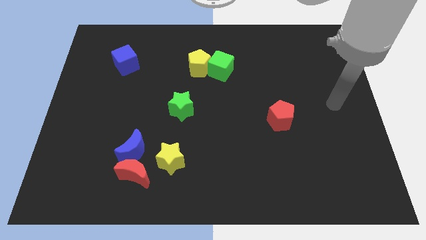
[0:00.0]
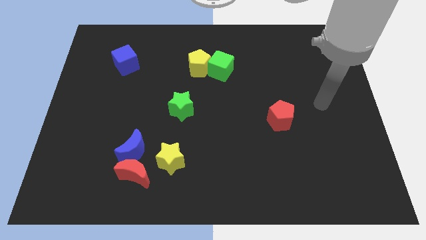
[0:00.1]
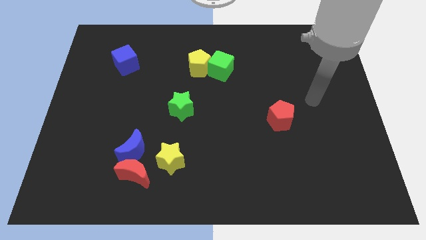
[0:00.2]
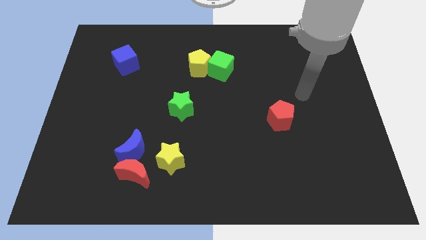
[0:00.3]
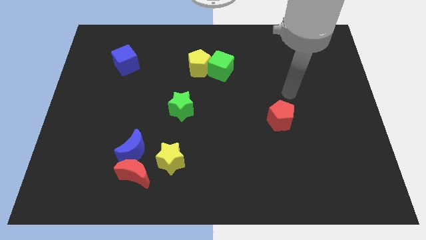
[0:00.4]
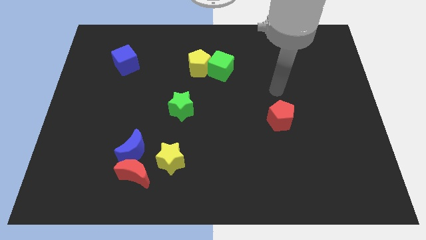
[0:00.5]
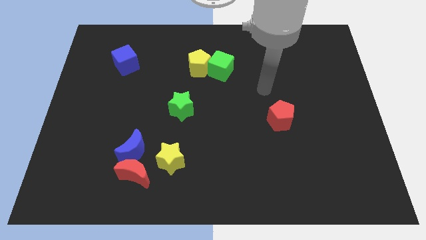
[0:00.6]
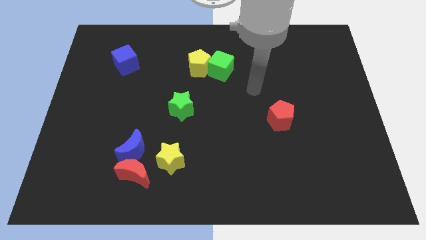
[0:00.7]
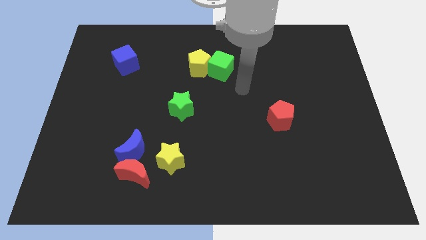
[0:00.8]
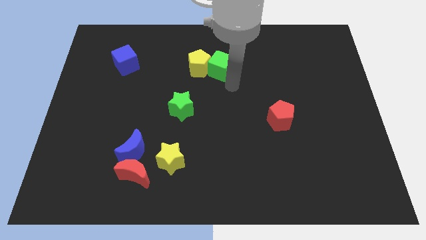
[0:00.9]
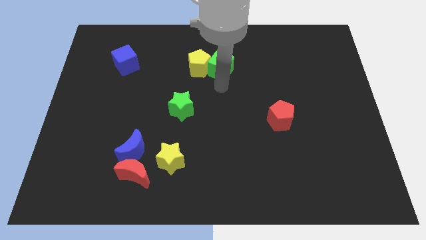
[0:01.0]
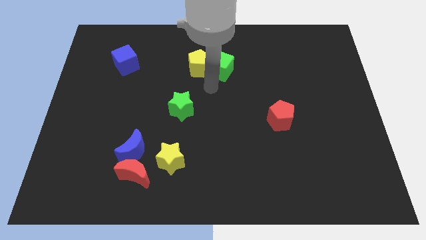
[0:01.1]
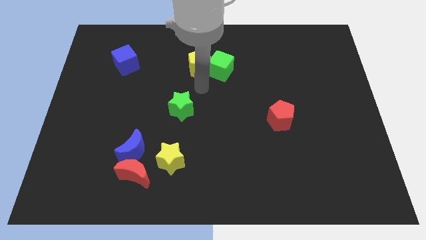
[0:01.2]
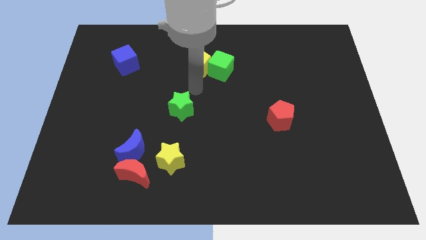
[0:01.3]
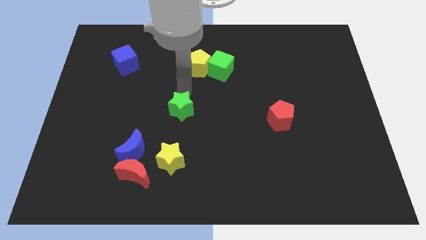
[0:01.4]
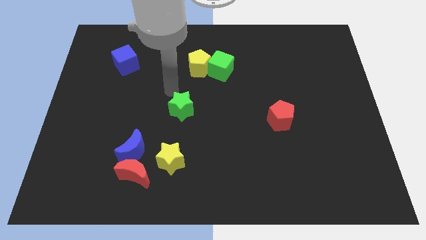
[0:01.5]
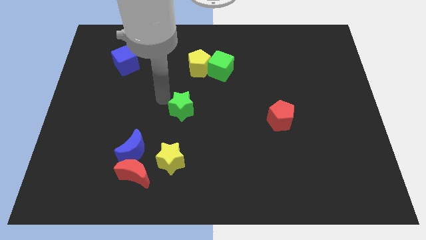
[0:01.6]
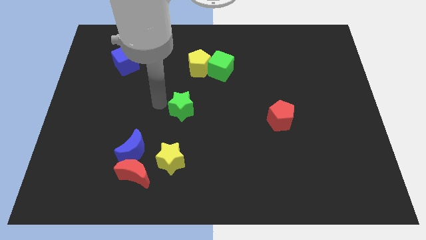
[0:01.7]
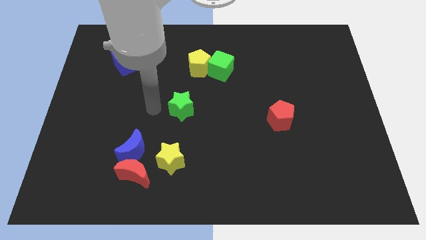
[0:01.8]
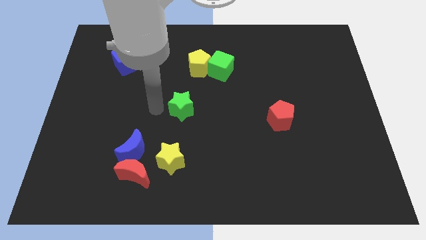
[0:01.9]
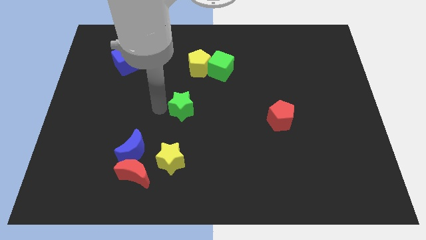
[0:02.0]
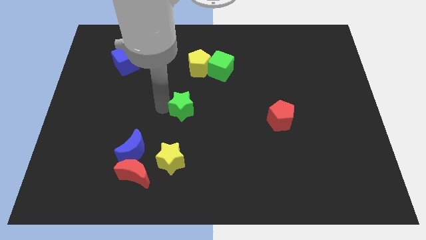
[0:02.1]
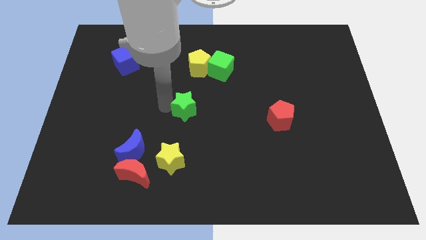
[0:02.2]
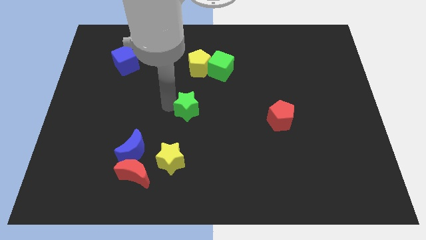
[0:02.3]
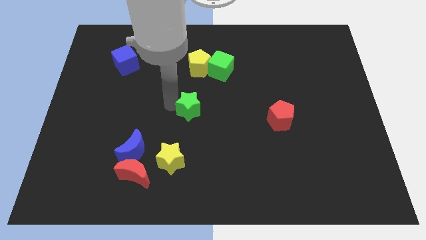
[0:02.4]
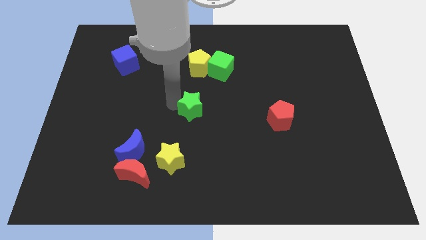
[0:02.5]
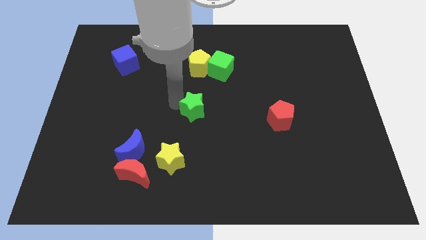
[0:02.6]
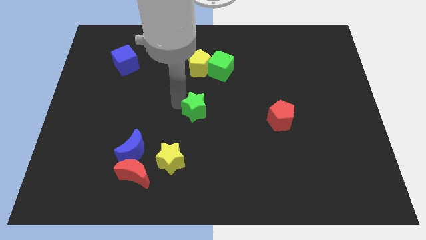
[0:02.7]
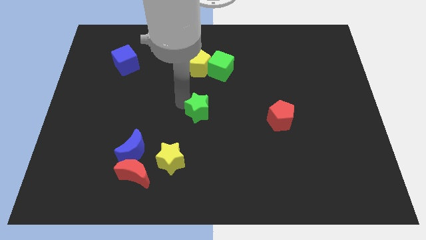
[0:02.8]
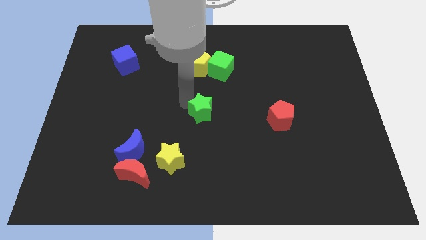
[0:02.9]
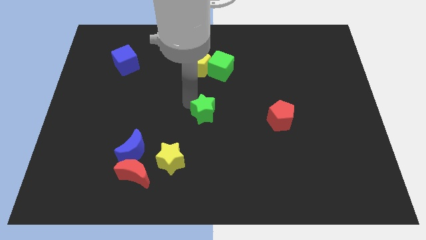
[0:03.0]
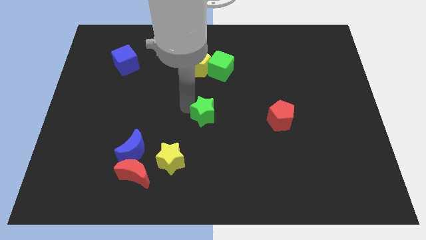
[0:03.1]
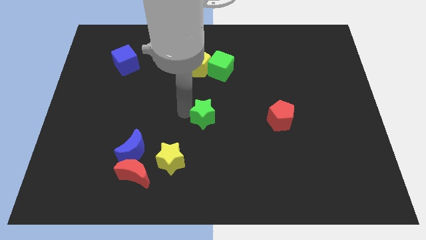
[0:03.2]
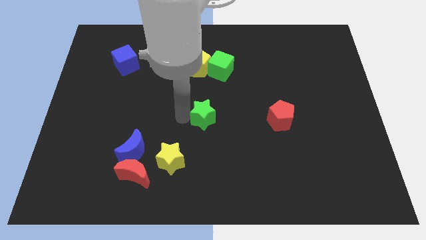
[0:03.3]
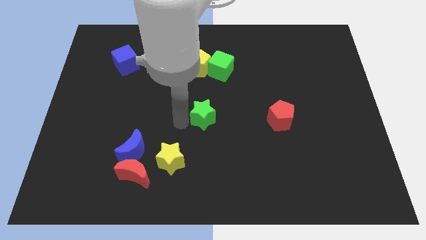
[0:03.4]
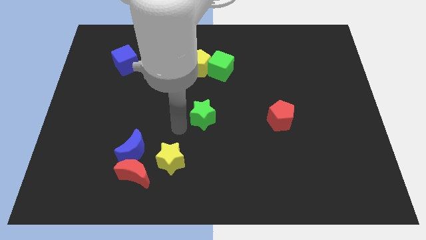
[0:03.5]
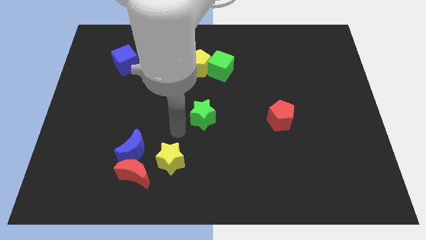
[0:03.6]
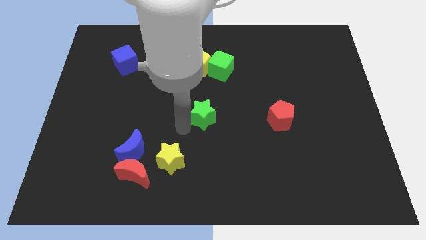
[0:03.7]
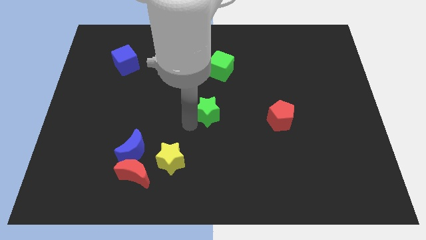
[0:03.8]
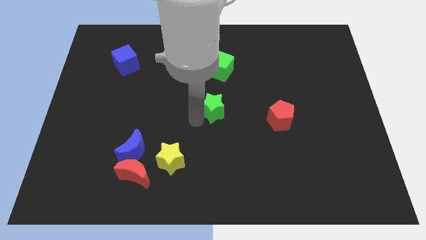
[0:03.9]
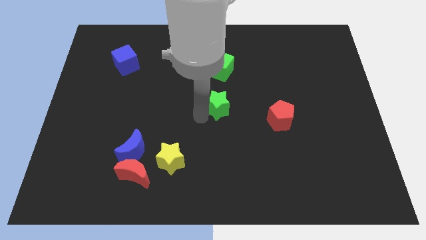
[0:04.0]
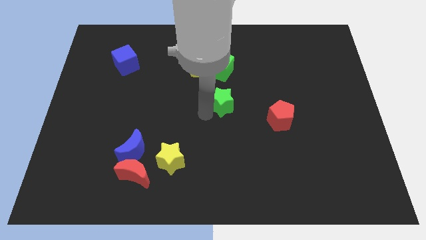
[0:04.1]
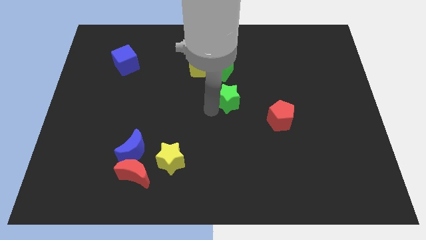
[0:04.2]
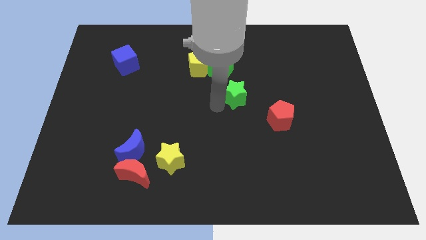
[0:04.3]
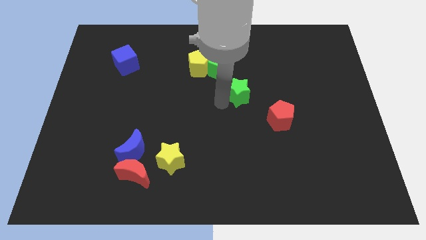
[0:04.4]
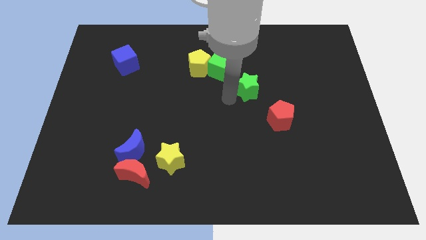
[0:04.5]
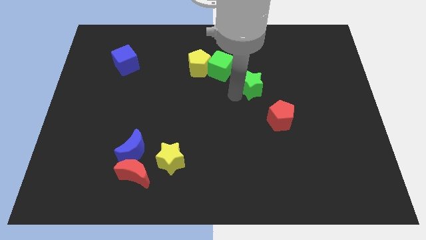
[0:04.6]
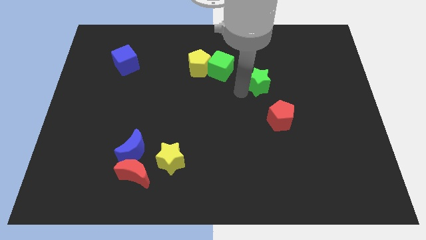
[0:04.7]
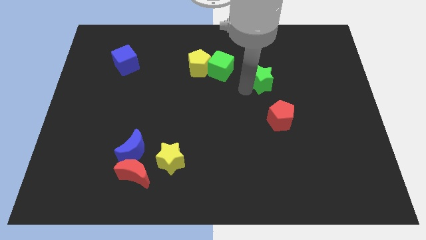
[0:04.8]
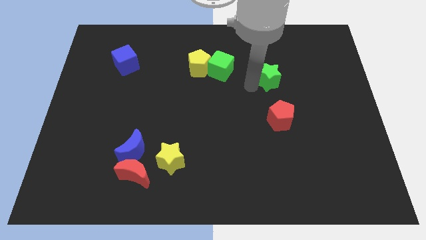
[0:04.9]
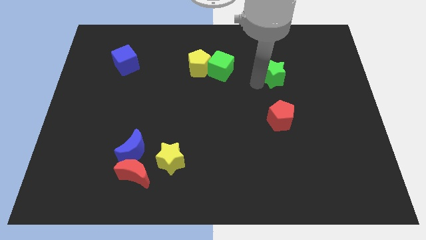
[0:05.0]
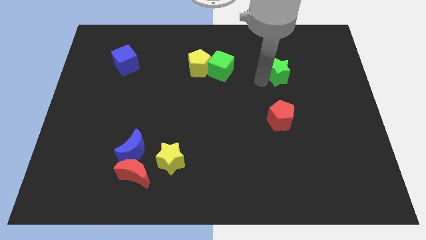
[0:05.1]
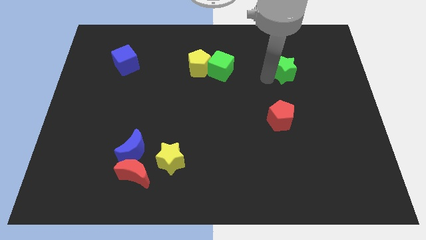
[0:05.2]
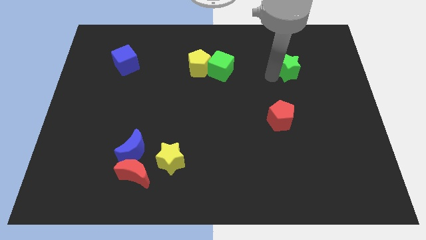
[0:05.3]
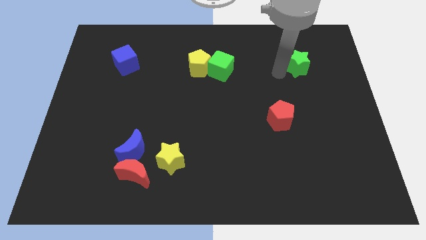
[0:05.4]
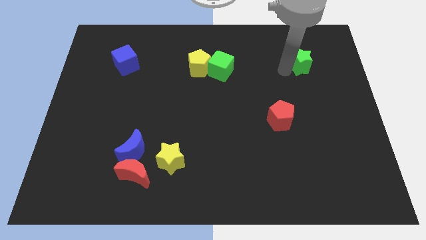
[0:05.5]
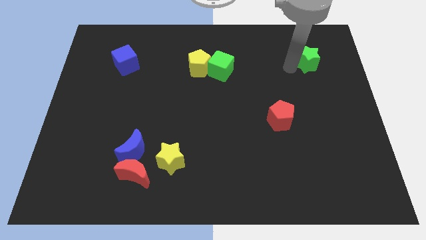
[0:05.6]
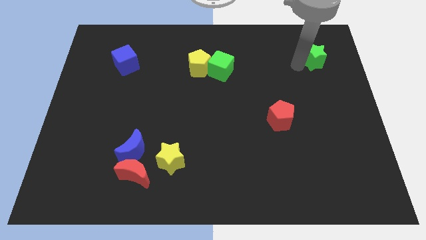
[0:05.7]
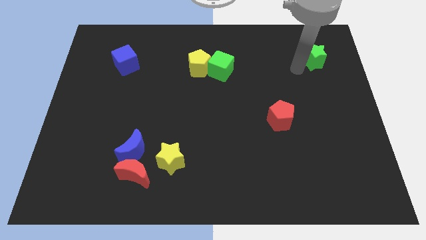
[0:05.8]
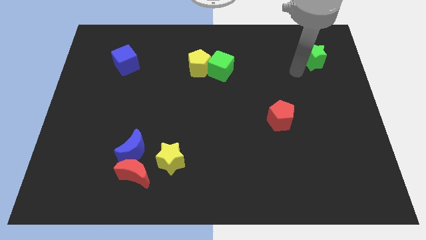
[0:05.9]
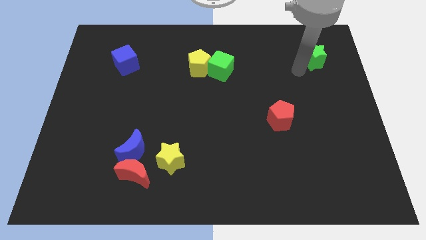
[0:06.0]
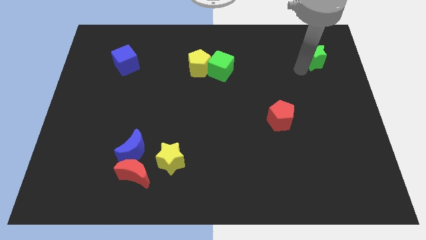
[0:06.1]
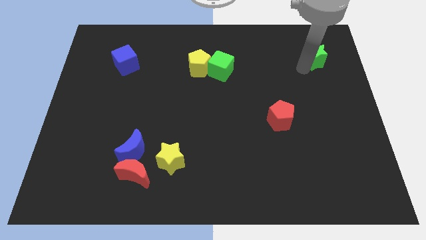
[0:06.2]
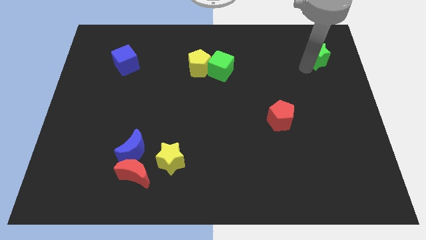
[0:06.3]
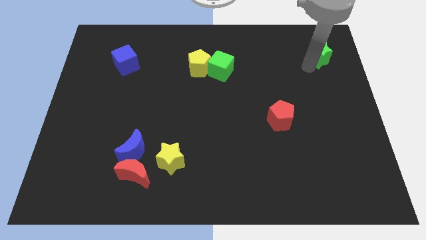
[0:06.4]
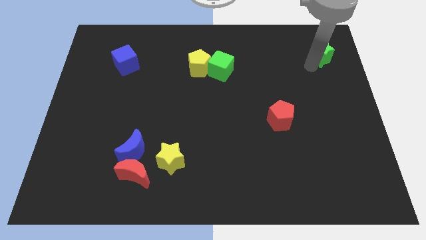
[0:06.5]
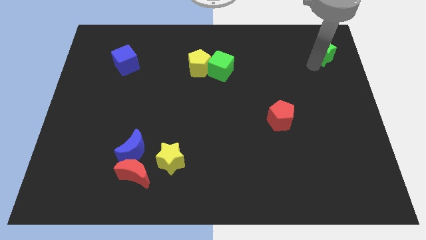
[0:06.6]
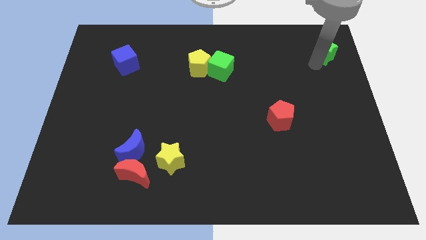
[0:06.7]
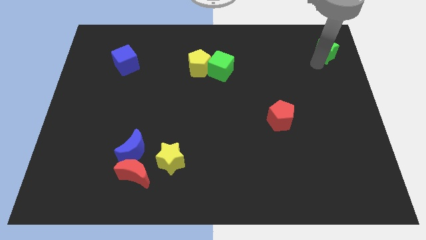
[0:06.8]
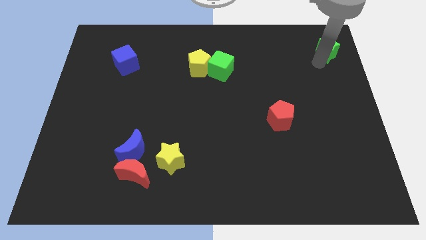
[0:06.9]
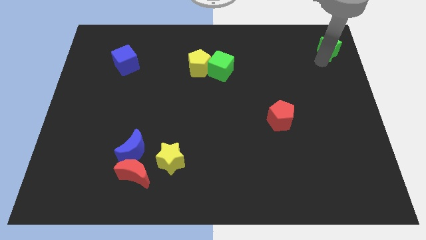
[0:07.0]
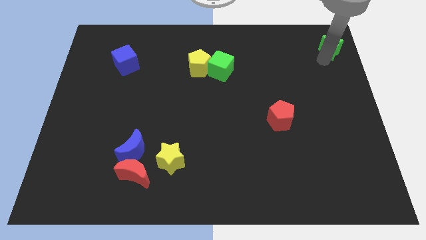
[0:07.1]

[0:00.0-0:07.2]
move the green star to the top right
